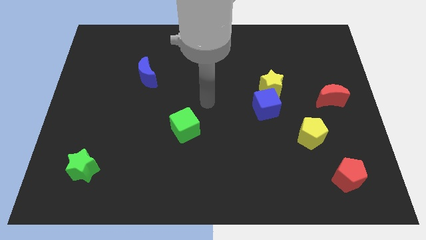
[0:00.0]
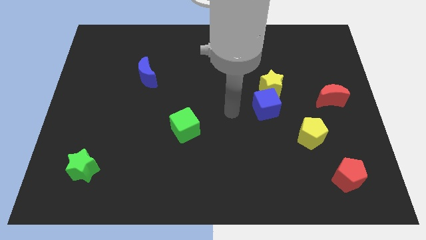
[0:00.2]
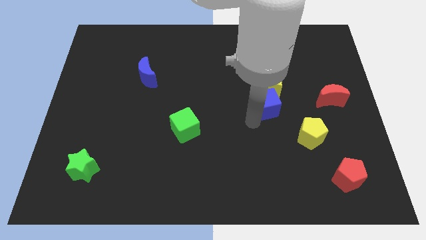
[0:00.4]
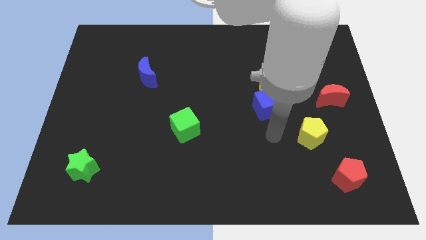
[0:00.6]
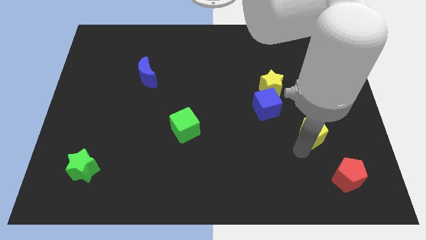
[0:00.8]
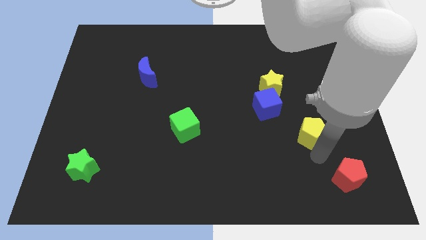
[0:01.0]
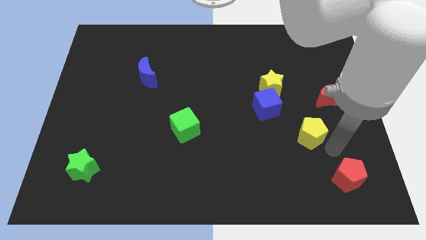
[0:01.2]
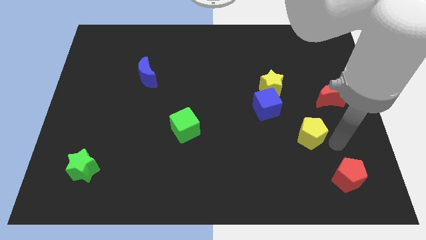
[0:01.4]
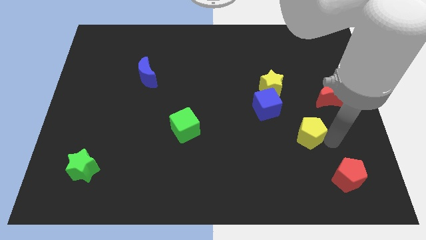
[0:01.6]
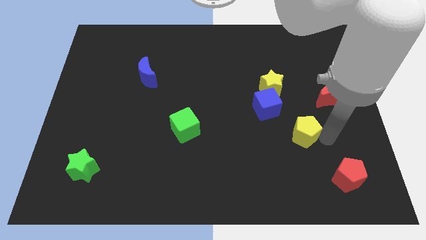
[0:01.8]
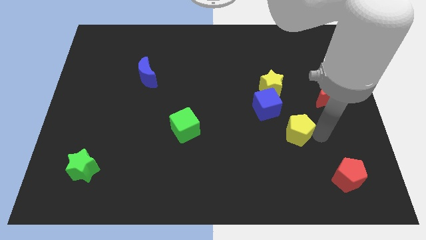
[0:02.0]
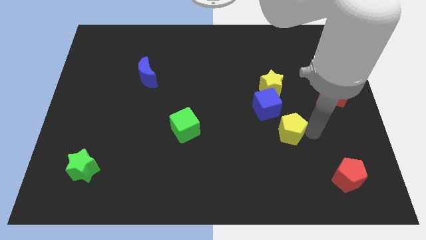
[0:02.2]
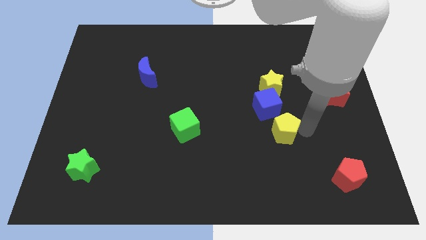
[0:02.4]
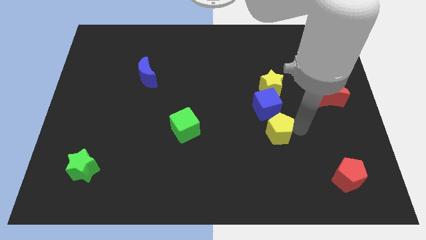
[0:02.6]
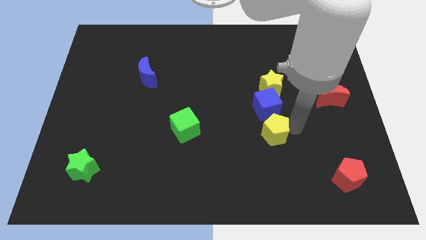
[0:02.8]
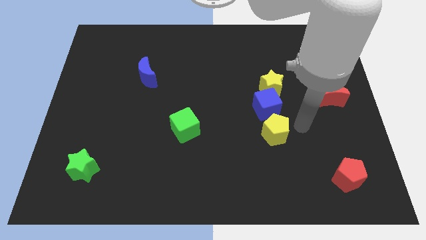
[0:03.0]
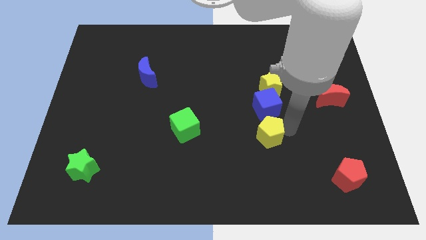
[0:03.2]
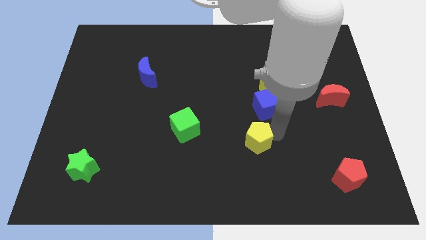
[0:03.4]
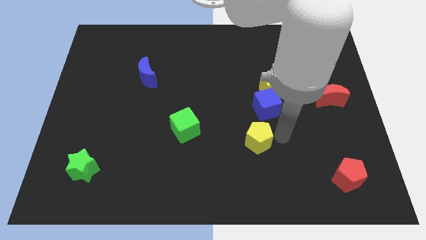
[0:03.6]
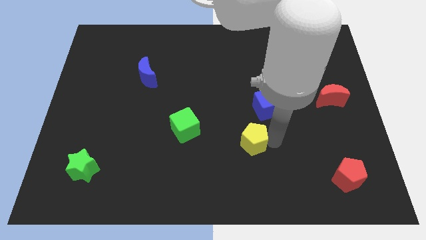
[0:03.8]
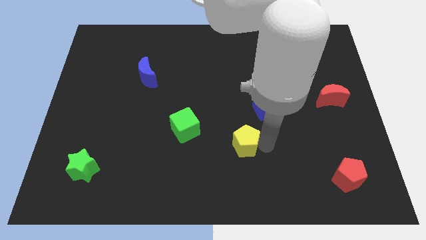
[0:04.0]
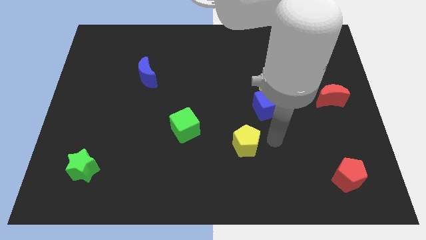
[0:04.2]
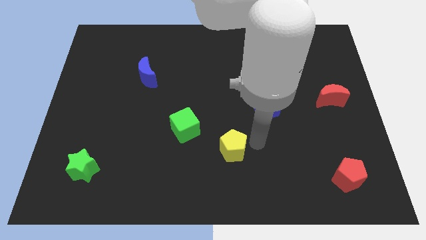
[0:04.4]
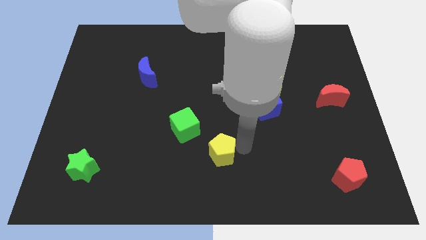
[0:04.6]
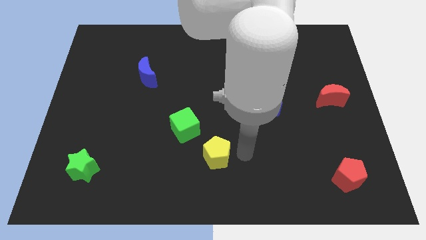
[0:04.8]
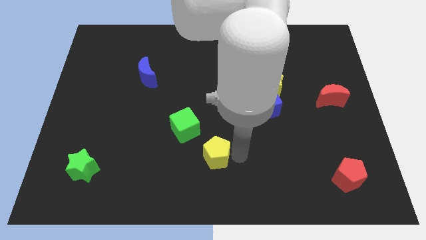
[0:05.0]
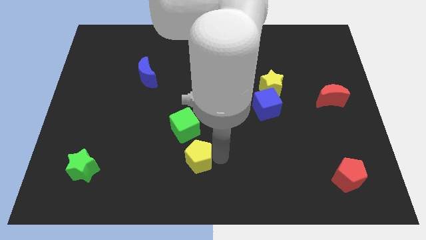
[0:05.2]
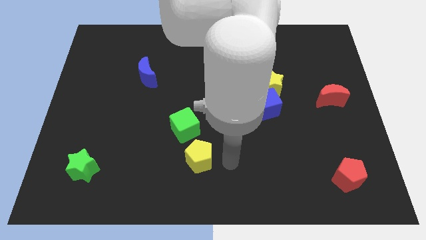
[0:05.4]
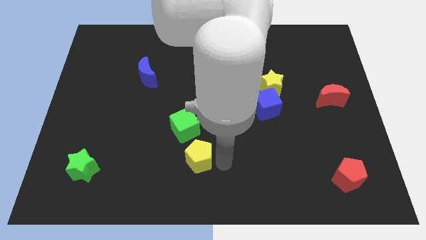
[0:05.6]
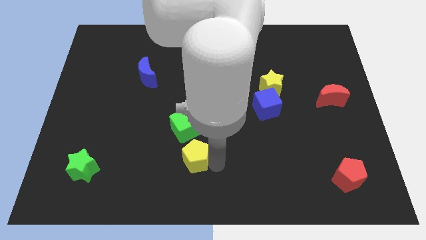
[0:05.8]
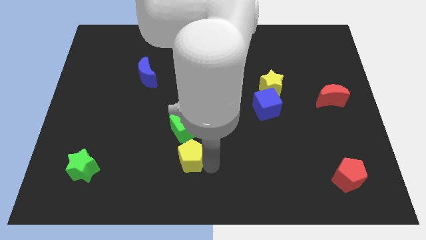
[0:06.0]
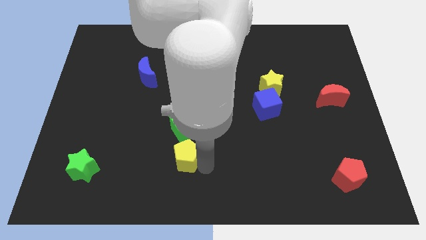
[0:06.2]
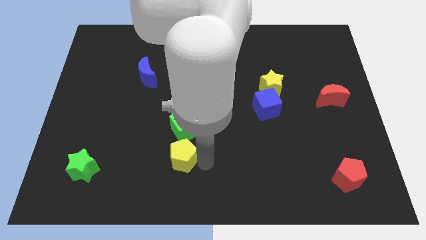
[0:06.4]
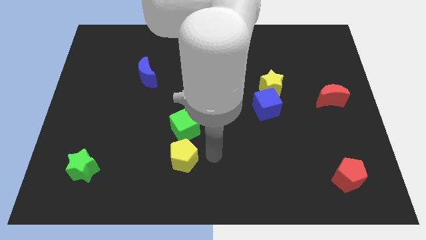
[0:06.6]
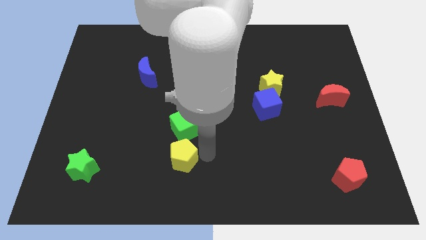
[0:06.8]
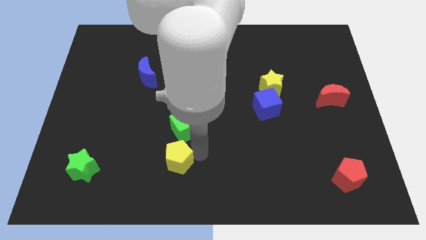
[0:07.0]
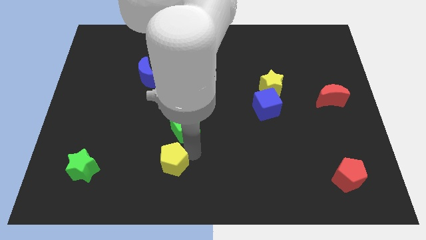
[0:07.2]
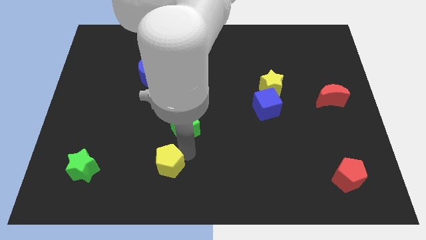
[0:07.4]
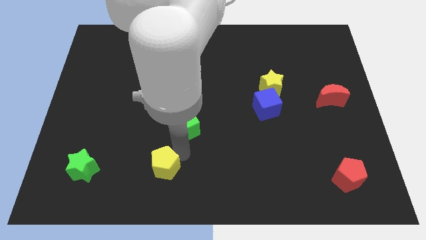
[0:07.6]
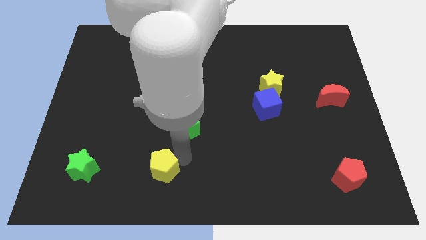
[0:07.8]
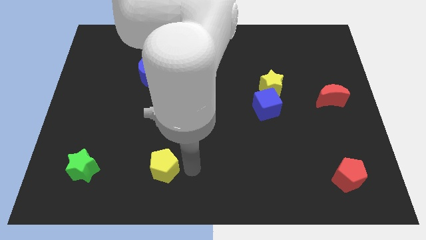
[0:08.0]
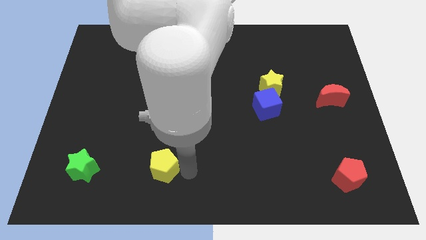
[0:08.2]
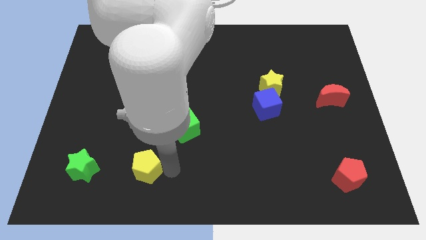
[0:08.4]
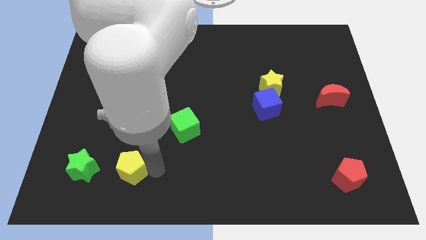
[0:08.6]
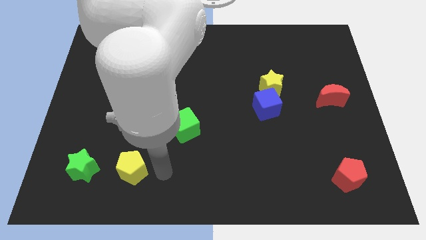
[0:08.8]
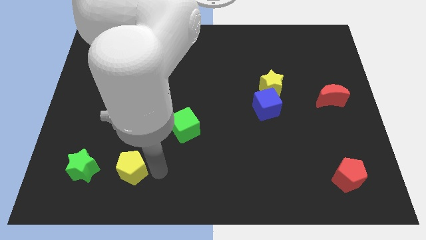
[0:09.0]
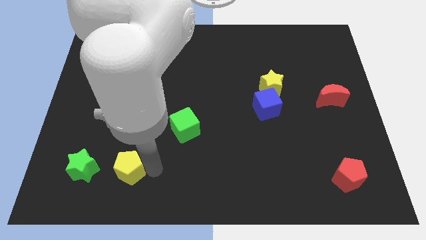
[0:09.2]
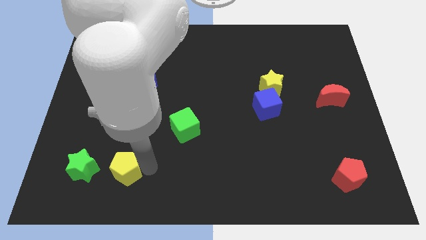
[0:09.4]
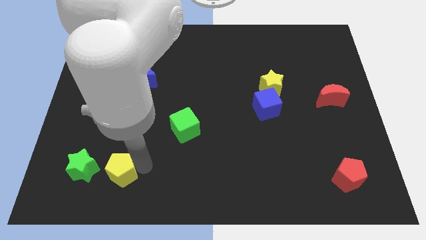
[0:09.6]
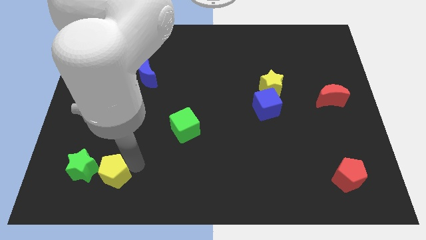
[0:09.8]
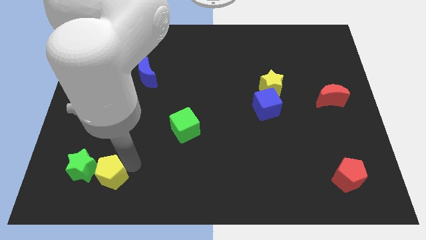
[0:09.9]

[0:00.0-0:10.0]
move the yellow pentagon next to the green star

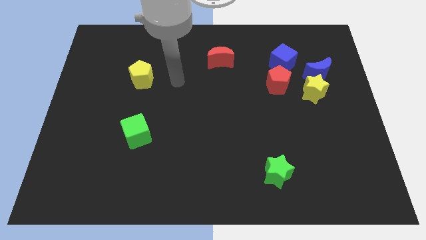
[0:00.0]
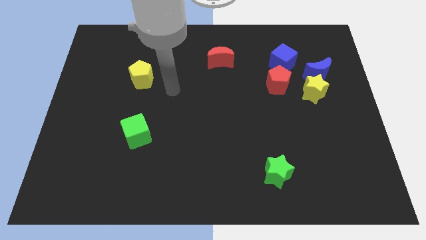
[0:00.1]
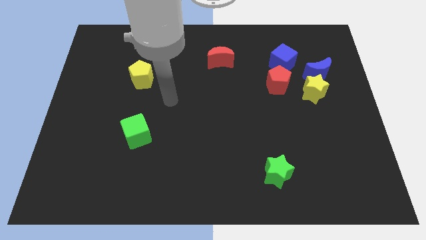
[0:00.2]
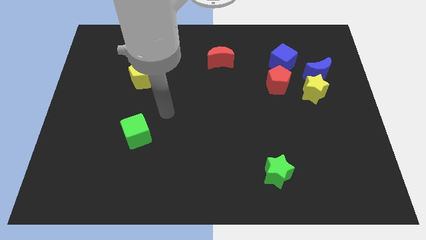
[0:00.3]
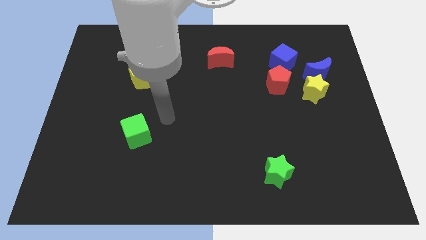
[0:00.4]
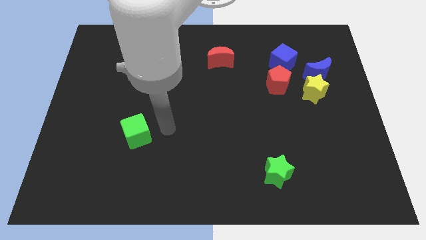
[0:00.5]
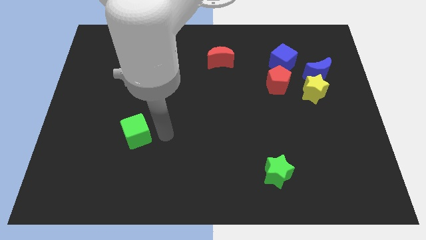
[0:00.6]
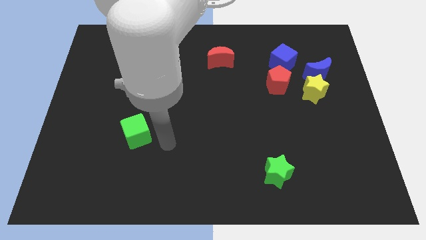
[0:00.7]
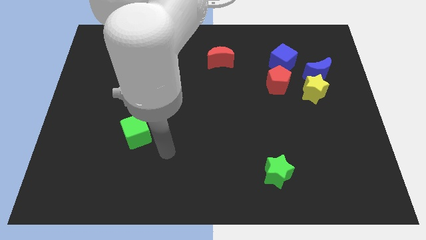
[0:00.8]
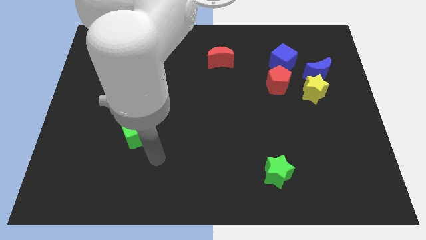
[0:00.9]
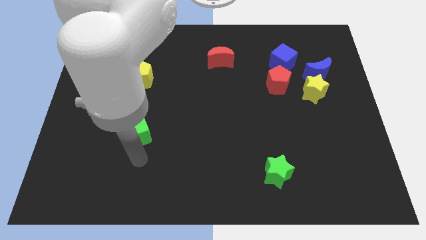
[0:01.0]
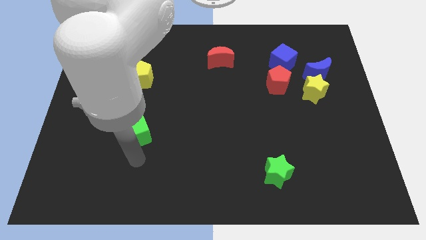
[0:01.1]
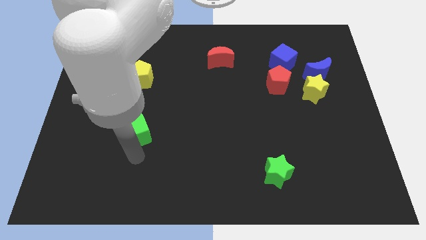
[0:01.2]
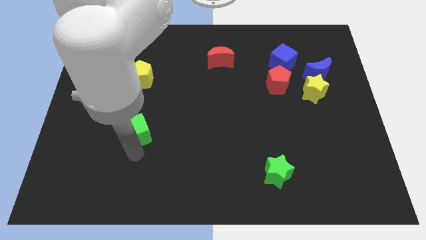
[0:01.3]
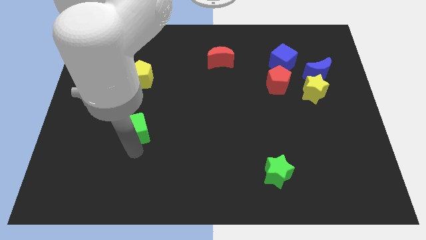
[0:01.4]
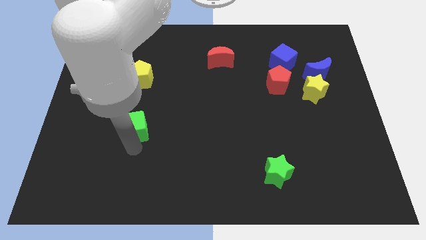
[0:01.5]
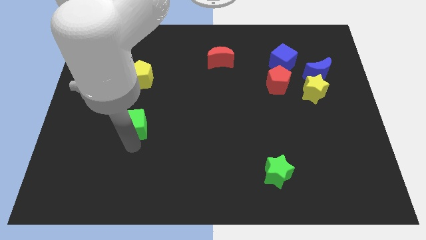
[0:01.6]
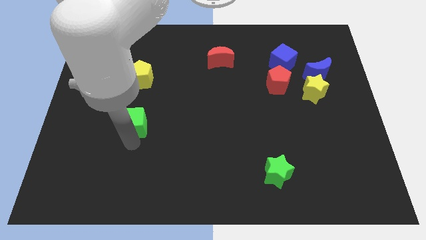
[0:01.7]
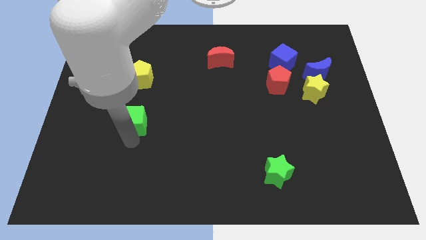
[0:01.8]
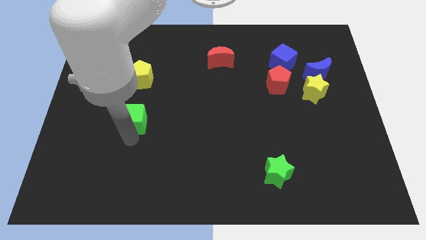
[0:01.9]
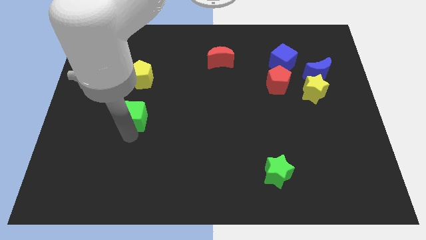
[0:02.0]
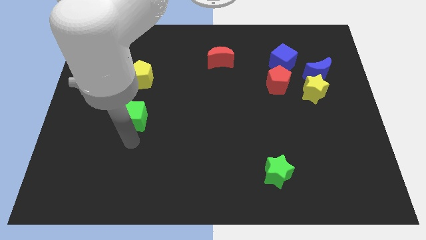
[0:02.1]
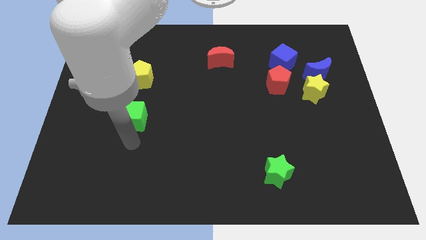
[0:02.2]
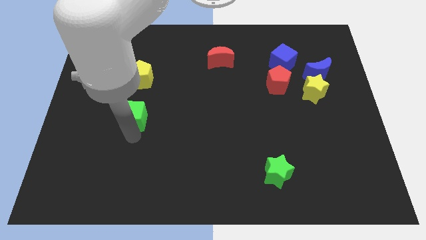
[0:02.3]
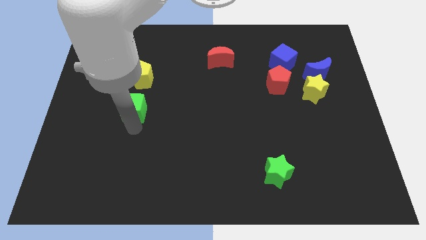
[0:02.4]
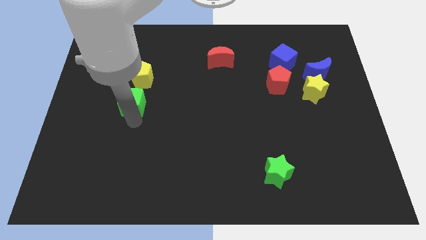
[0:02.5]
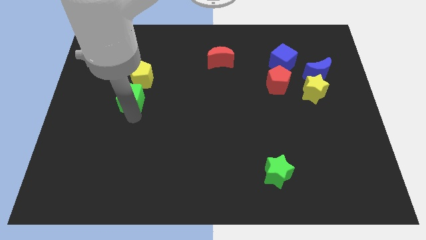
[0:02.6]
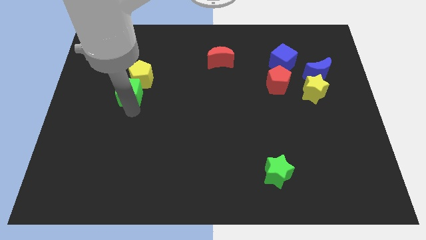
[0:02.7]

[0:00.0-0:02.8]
put the green cube to the yellow pentagon
